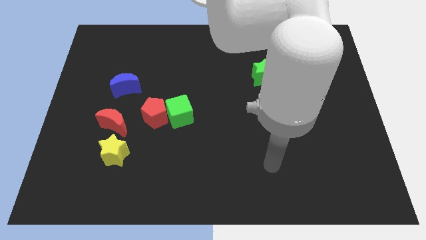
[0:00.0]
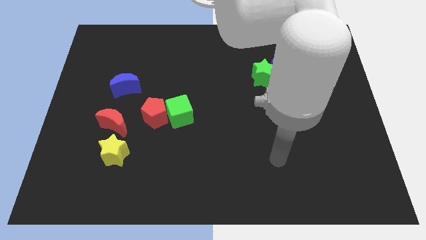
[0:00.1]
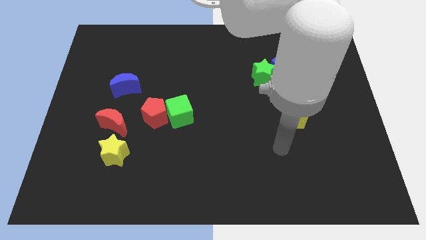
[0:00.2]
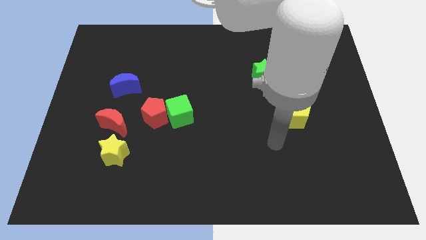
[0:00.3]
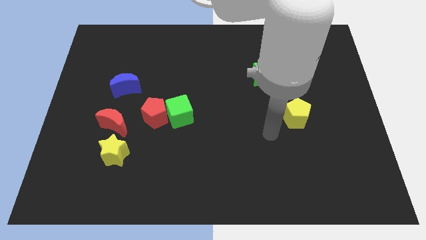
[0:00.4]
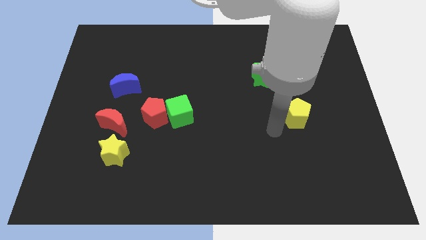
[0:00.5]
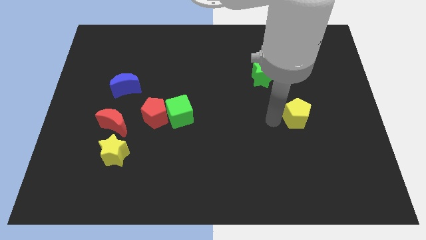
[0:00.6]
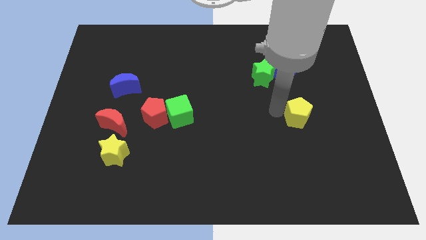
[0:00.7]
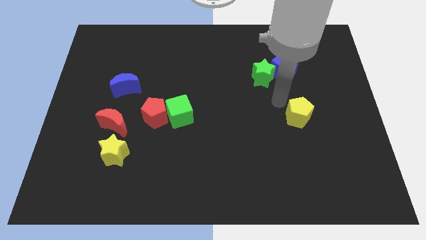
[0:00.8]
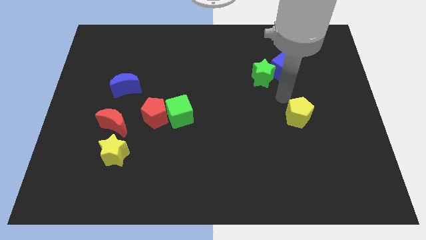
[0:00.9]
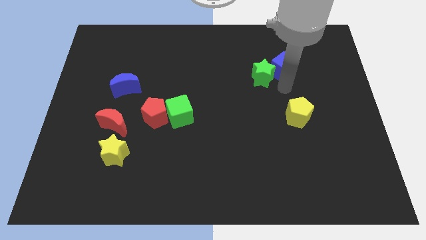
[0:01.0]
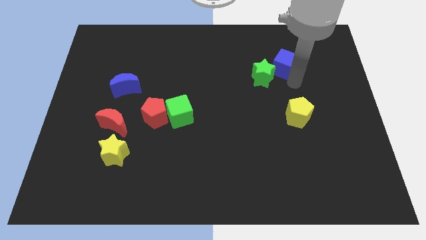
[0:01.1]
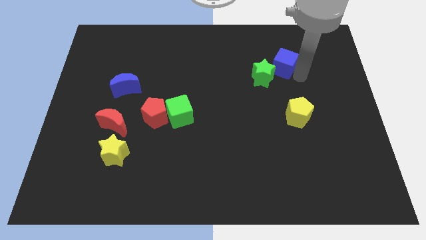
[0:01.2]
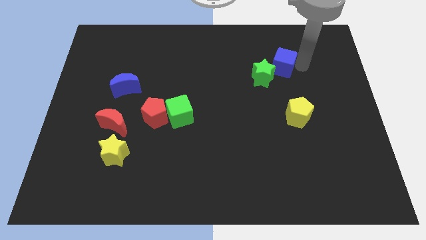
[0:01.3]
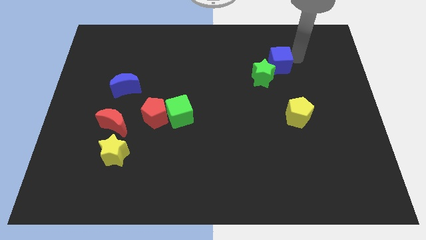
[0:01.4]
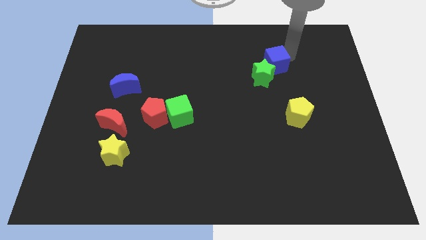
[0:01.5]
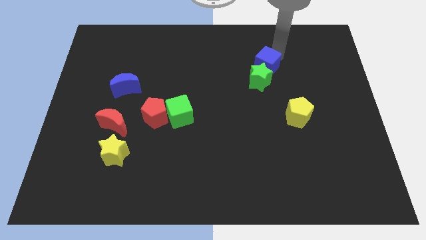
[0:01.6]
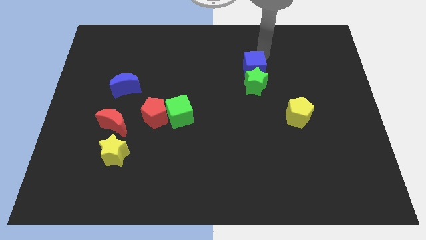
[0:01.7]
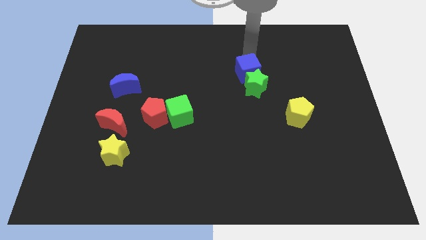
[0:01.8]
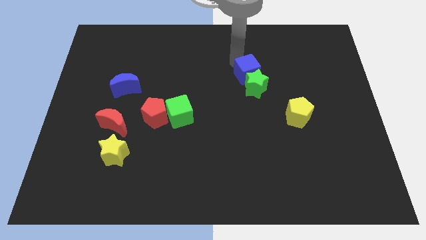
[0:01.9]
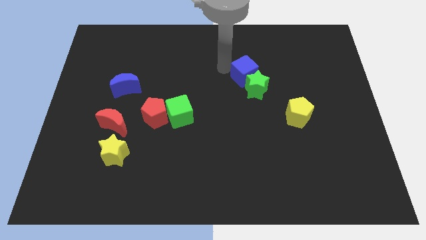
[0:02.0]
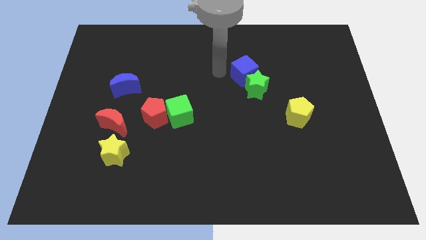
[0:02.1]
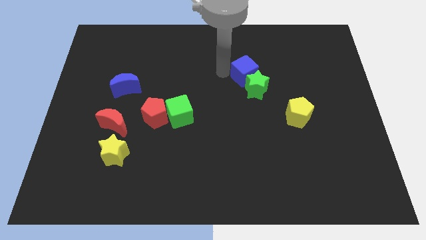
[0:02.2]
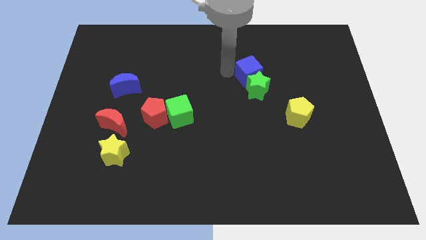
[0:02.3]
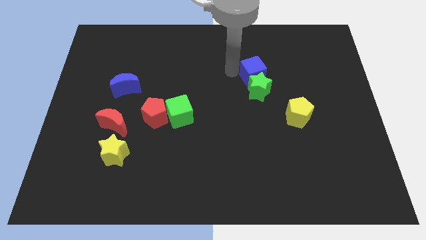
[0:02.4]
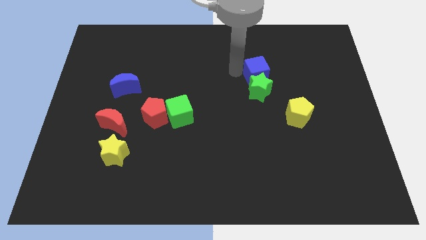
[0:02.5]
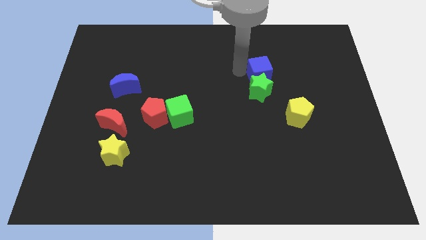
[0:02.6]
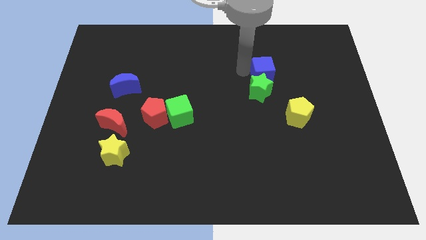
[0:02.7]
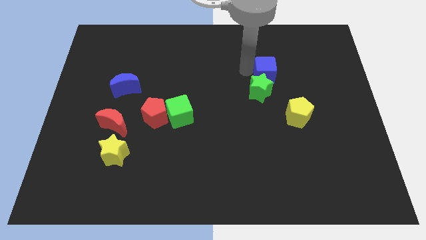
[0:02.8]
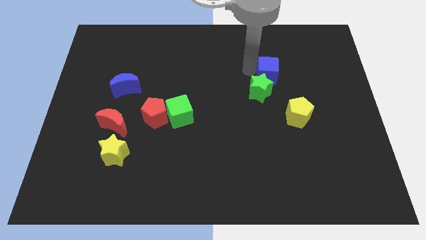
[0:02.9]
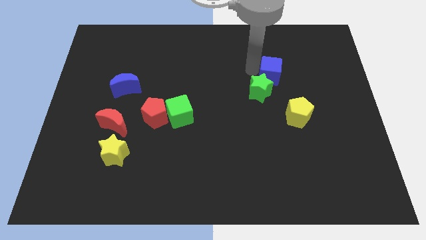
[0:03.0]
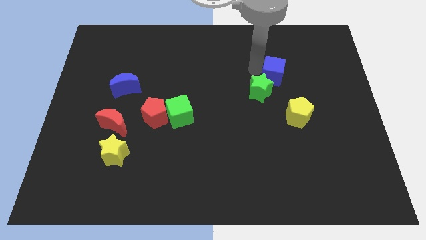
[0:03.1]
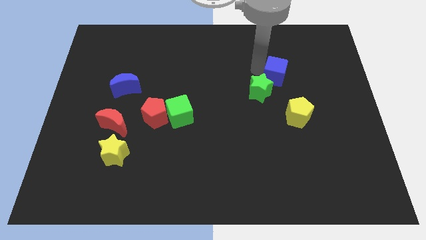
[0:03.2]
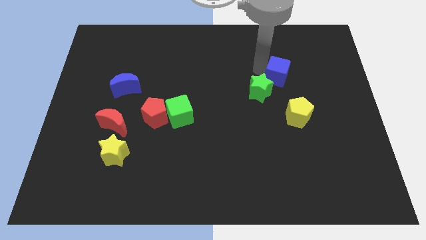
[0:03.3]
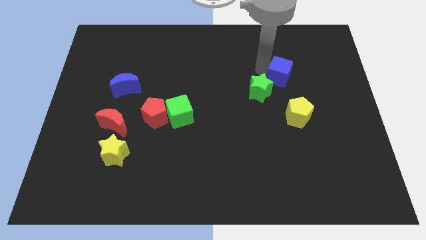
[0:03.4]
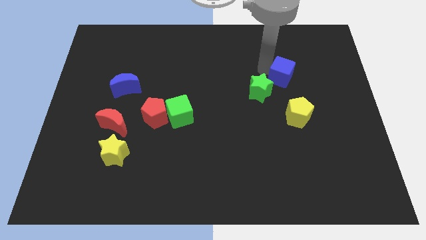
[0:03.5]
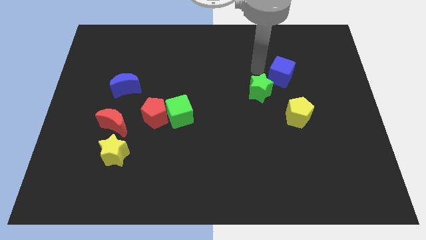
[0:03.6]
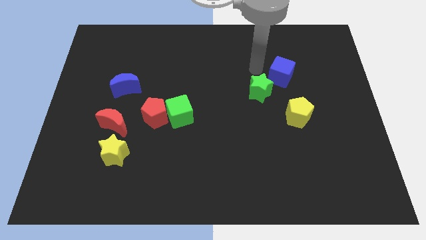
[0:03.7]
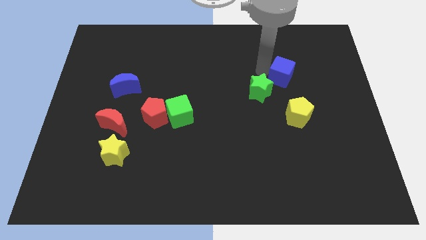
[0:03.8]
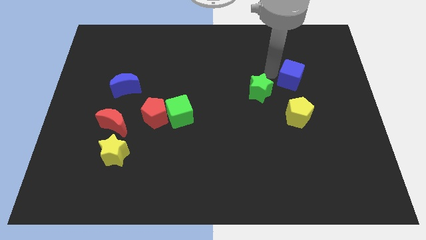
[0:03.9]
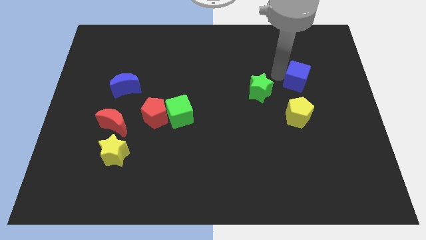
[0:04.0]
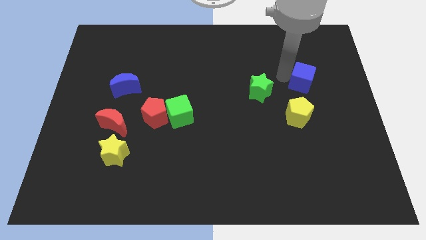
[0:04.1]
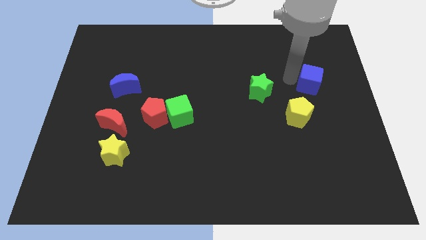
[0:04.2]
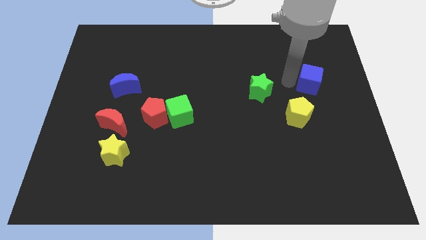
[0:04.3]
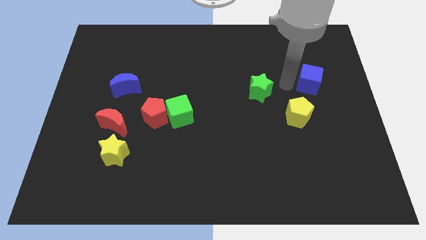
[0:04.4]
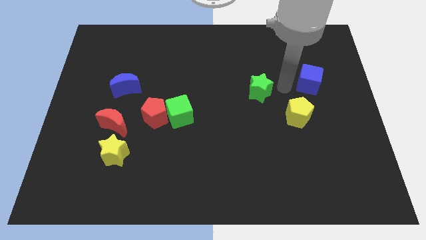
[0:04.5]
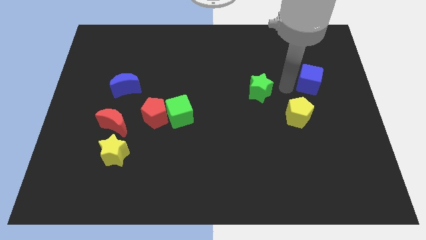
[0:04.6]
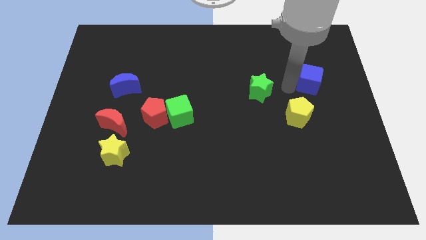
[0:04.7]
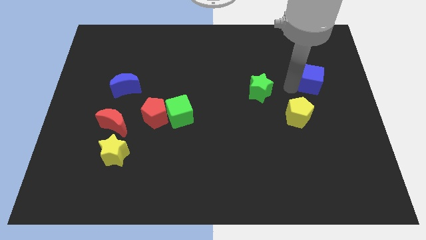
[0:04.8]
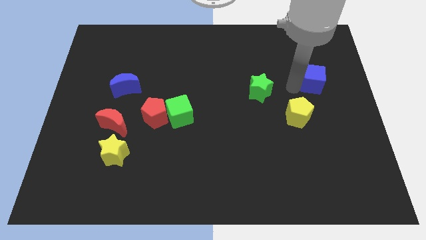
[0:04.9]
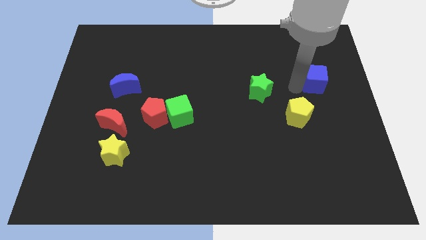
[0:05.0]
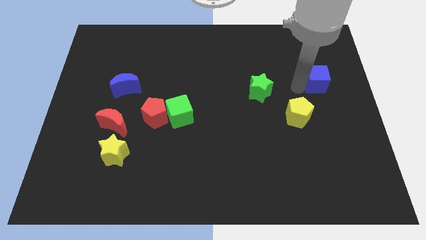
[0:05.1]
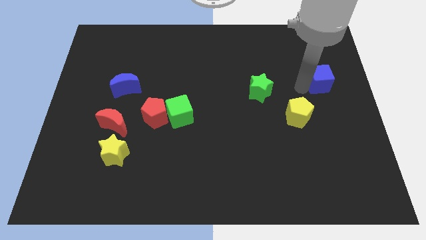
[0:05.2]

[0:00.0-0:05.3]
slide the blue cube to the right side of the board

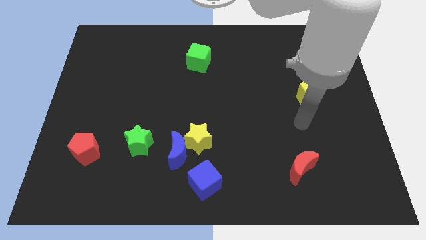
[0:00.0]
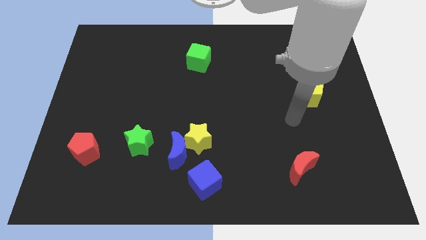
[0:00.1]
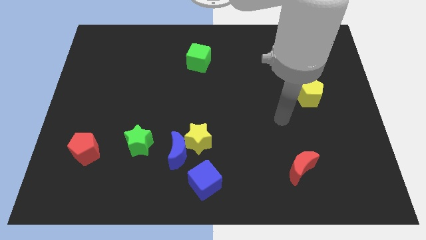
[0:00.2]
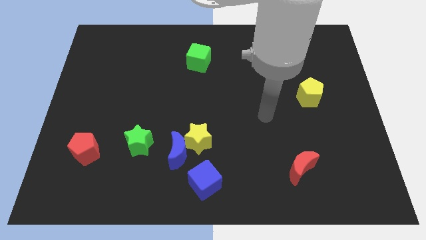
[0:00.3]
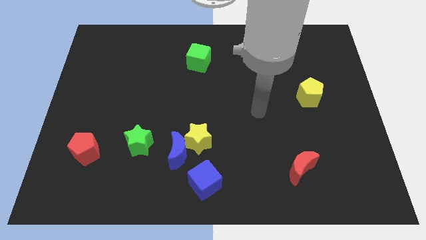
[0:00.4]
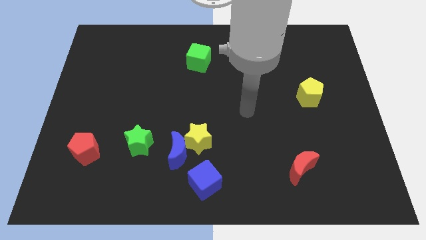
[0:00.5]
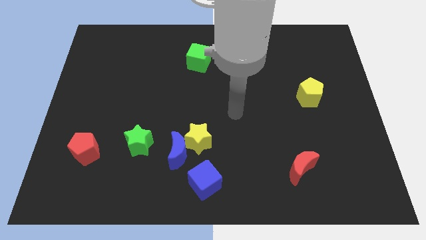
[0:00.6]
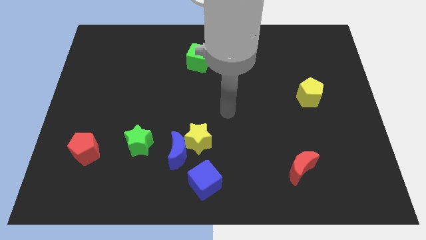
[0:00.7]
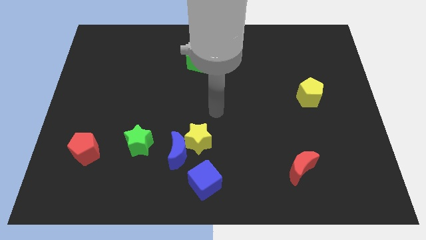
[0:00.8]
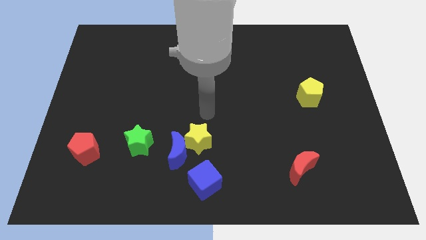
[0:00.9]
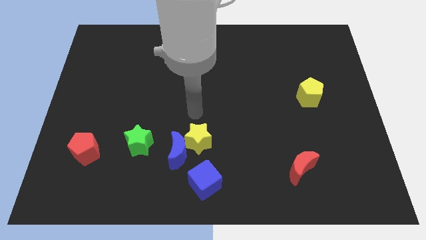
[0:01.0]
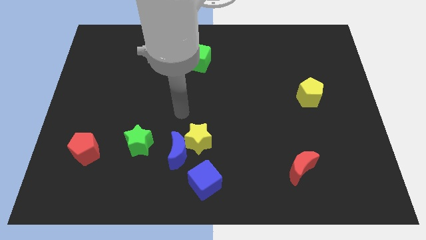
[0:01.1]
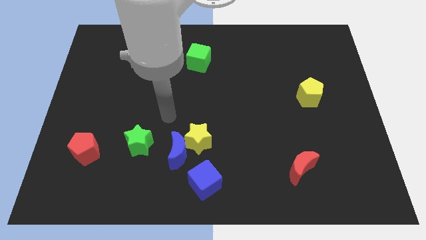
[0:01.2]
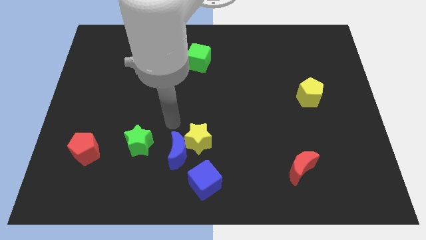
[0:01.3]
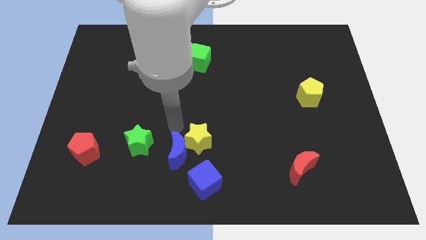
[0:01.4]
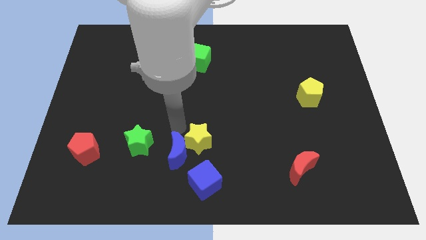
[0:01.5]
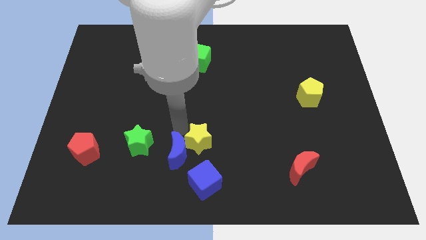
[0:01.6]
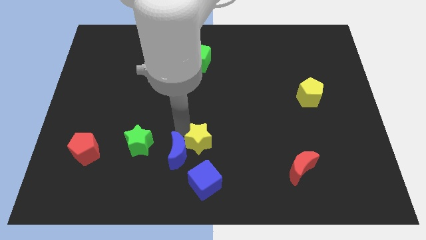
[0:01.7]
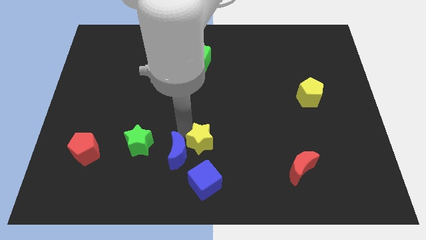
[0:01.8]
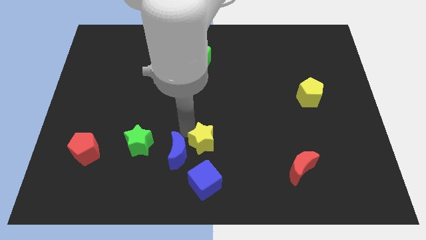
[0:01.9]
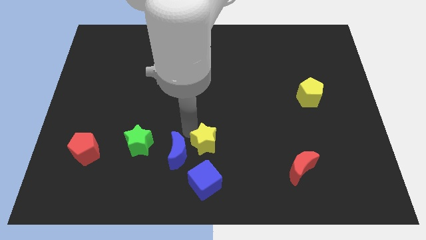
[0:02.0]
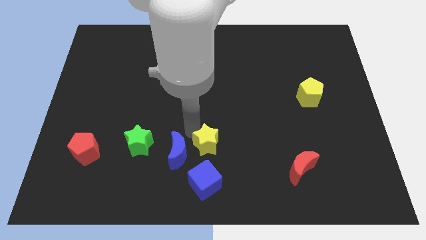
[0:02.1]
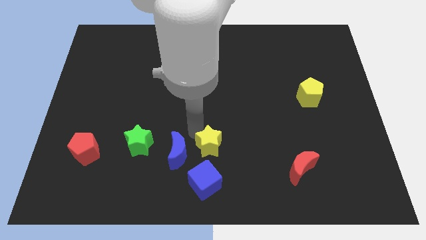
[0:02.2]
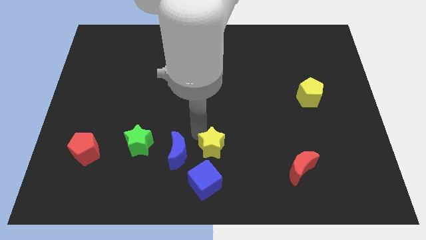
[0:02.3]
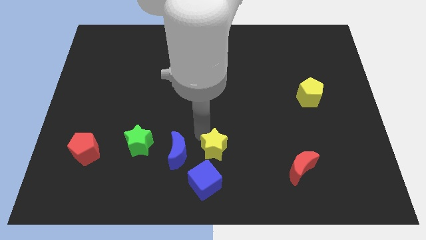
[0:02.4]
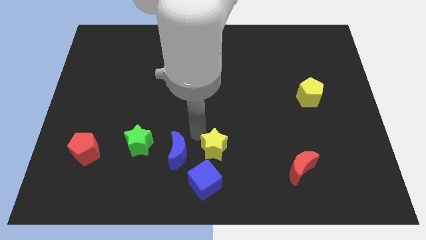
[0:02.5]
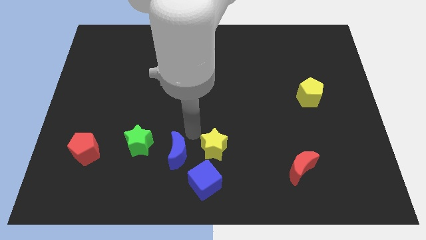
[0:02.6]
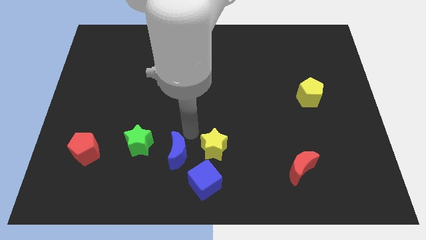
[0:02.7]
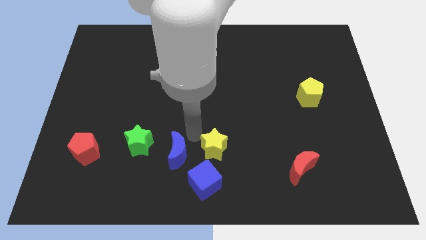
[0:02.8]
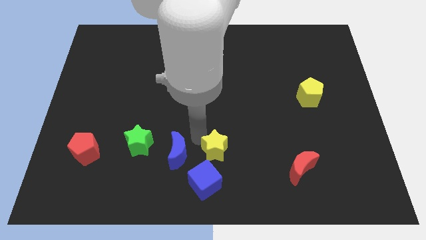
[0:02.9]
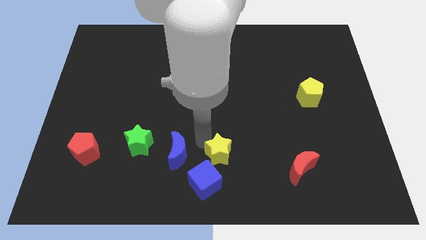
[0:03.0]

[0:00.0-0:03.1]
put the yellow star to the bottom
